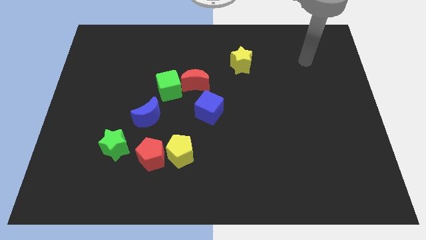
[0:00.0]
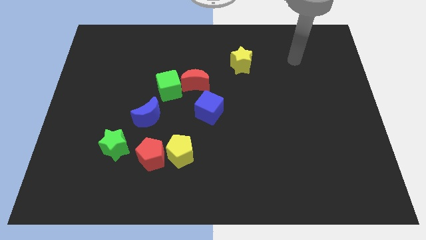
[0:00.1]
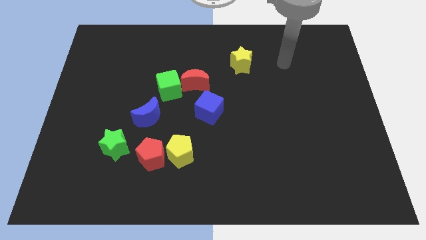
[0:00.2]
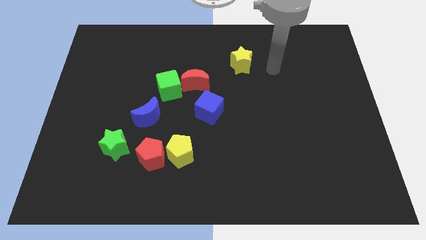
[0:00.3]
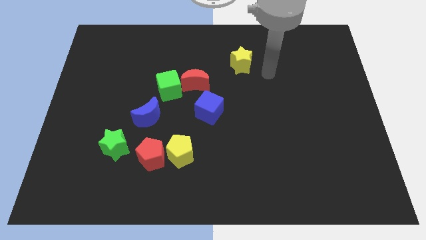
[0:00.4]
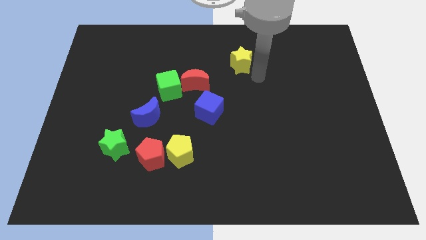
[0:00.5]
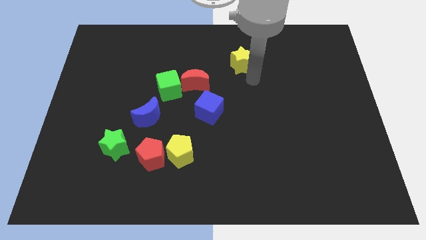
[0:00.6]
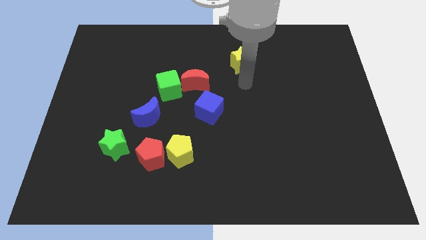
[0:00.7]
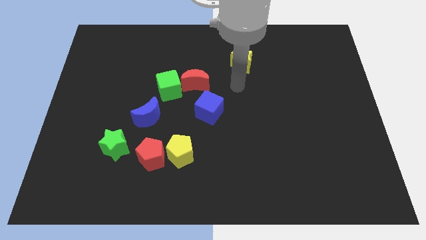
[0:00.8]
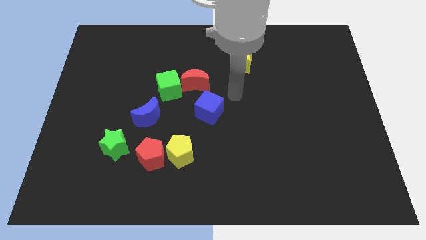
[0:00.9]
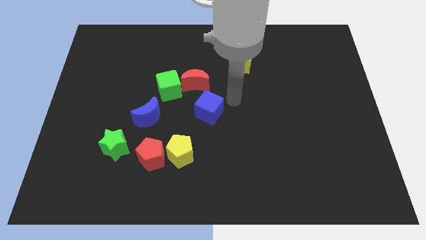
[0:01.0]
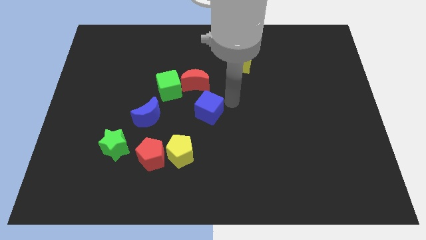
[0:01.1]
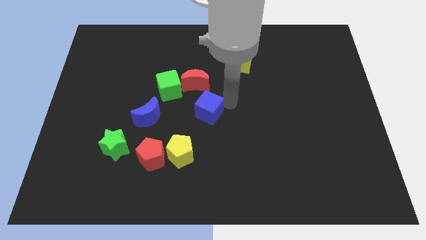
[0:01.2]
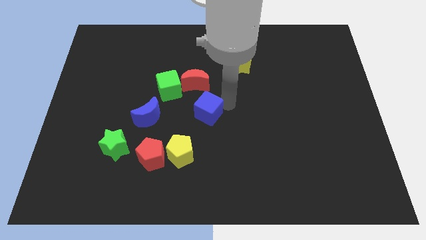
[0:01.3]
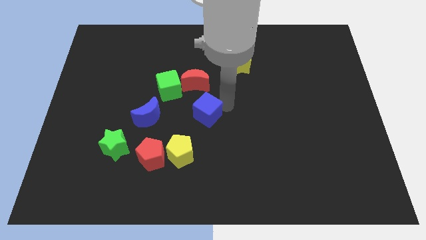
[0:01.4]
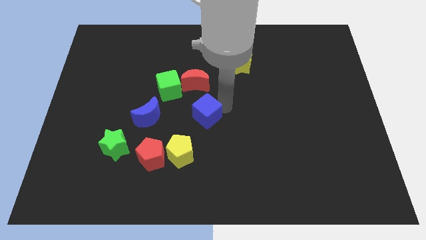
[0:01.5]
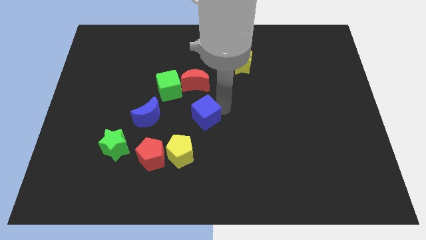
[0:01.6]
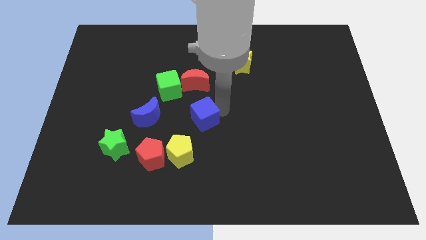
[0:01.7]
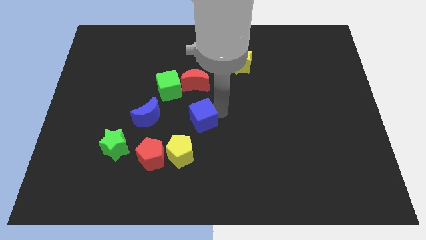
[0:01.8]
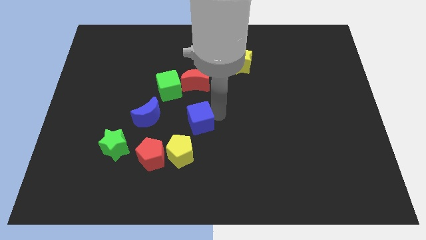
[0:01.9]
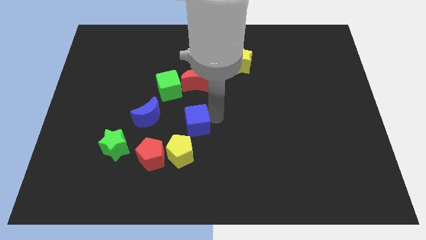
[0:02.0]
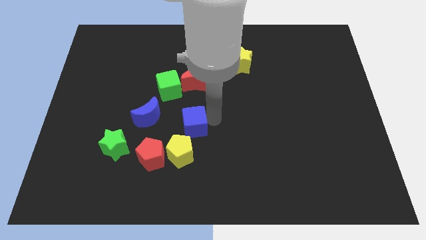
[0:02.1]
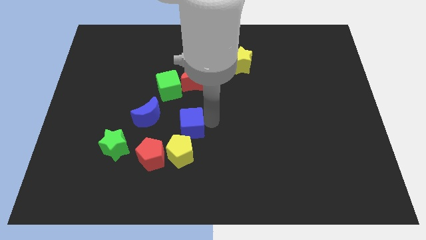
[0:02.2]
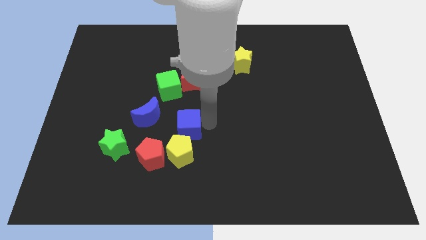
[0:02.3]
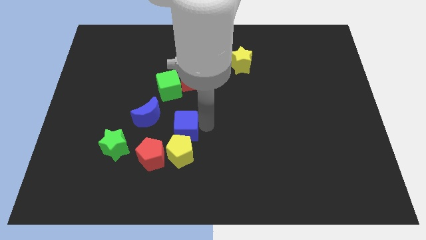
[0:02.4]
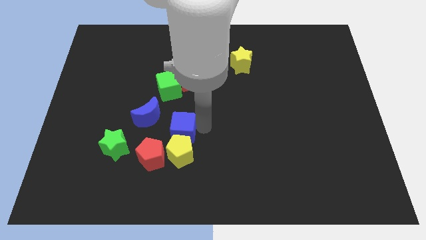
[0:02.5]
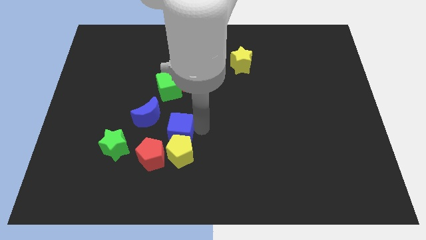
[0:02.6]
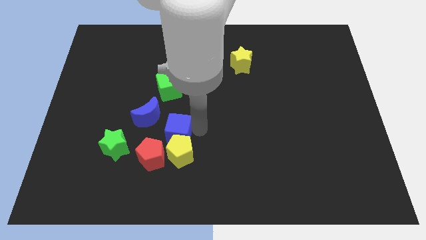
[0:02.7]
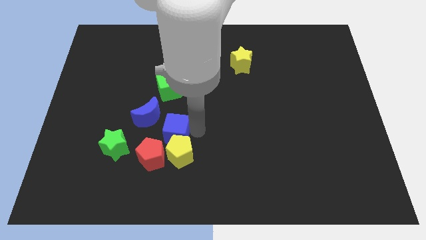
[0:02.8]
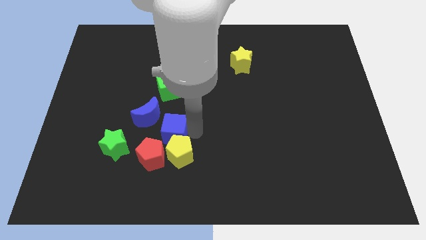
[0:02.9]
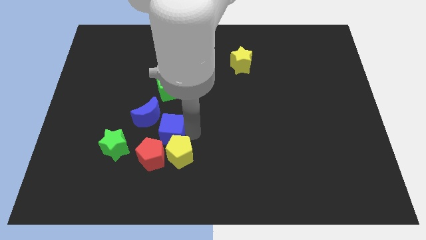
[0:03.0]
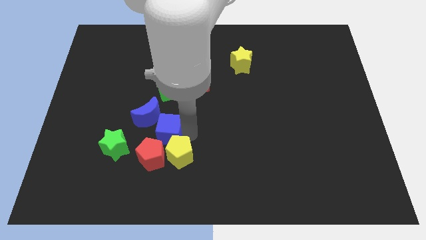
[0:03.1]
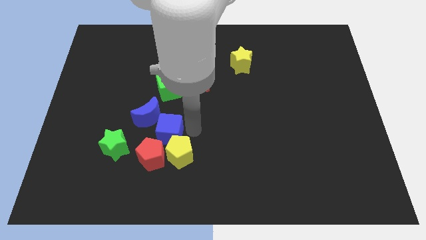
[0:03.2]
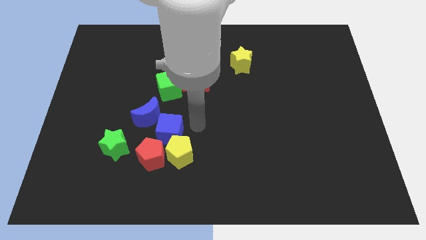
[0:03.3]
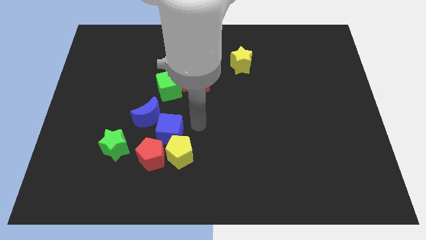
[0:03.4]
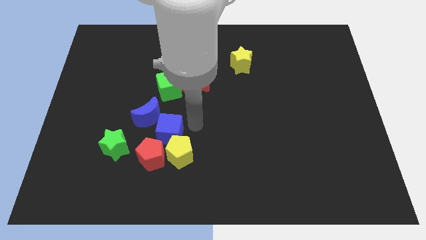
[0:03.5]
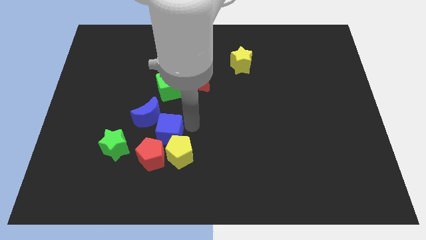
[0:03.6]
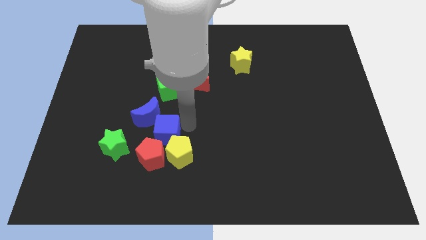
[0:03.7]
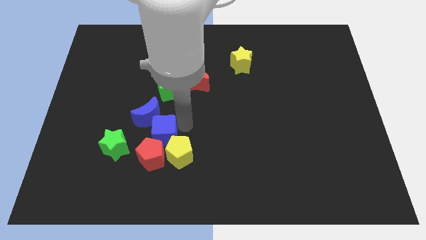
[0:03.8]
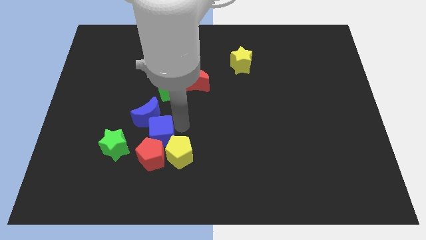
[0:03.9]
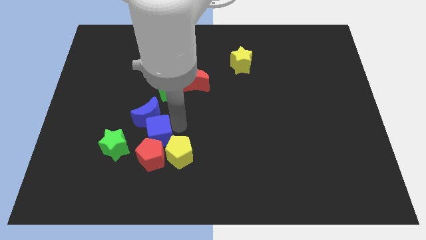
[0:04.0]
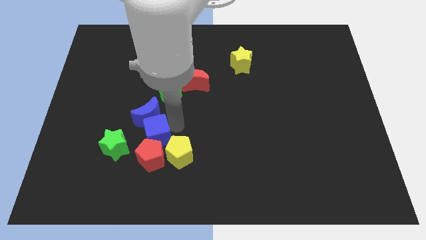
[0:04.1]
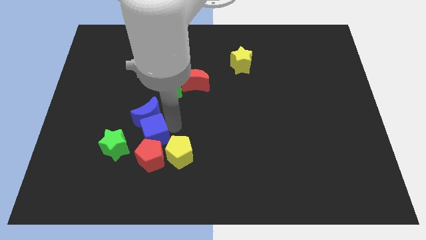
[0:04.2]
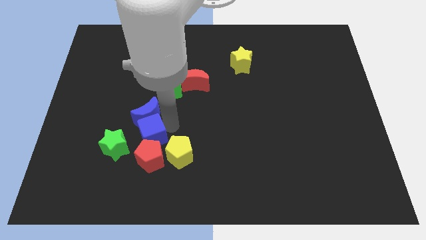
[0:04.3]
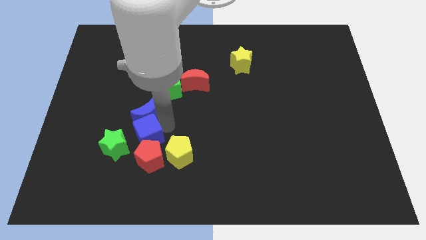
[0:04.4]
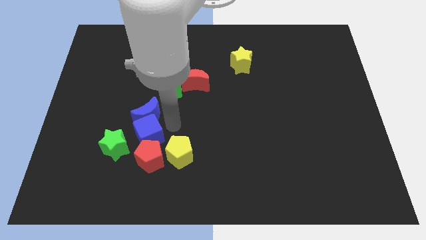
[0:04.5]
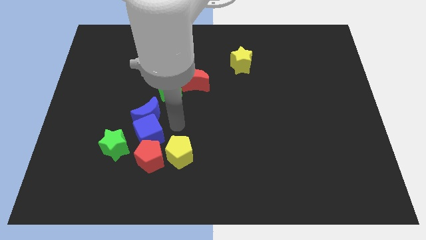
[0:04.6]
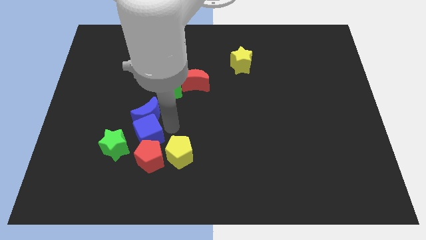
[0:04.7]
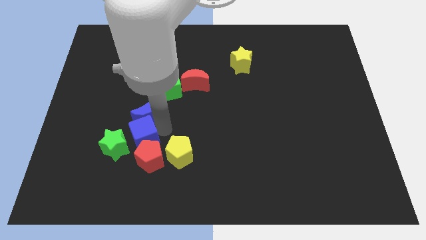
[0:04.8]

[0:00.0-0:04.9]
push the blue cube next to the green star

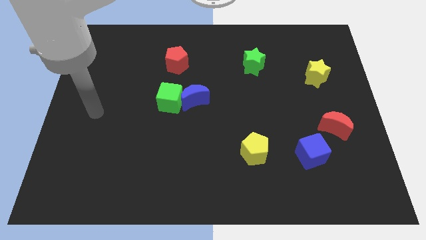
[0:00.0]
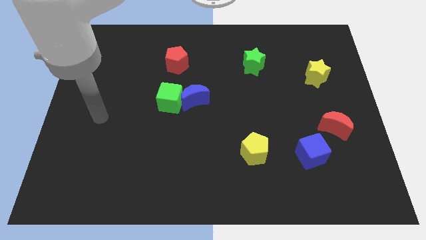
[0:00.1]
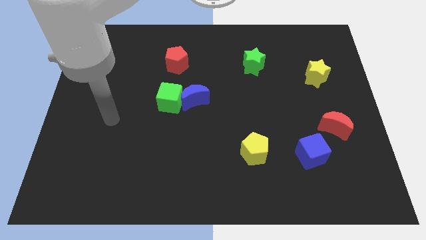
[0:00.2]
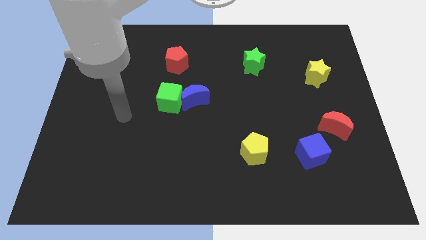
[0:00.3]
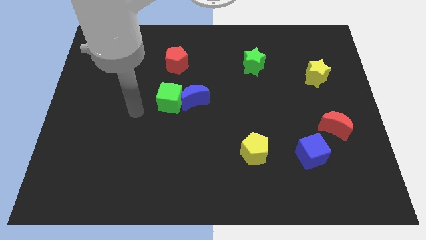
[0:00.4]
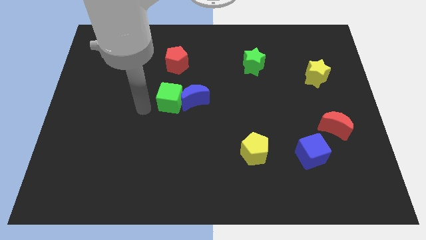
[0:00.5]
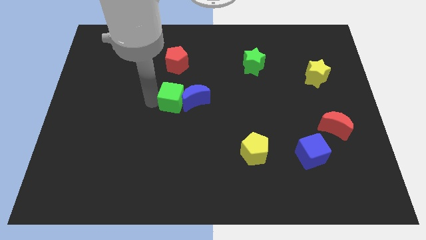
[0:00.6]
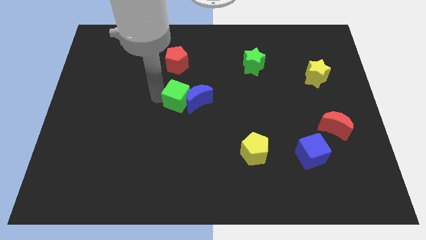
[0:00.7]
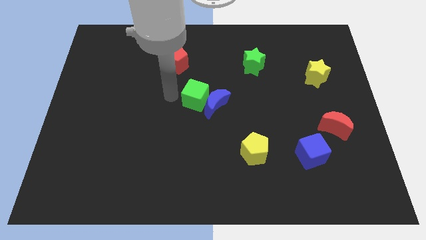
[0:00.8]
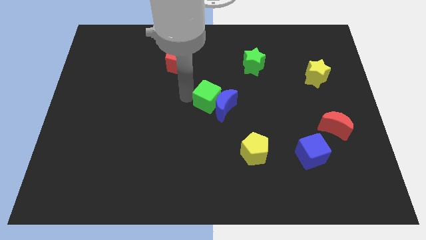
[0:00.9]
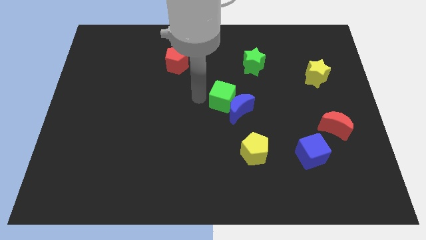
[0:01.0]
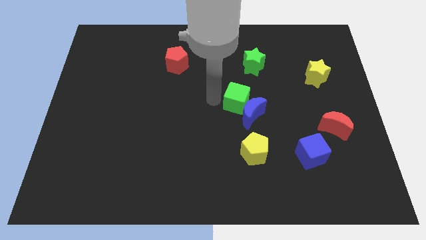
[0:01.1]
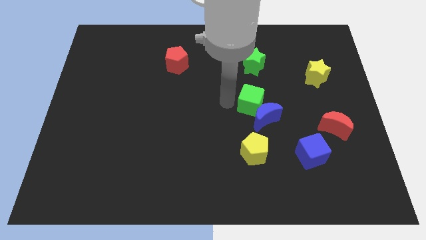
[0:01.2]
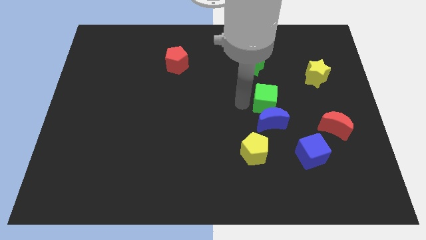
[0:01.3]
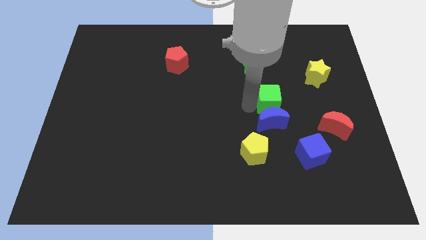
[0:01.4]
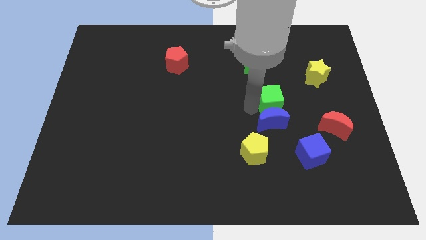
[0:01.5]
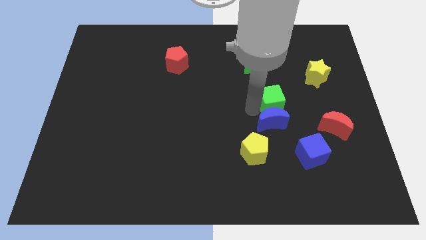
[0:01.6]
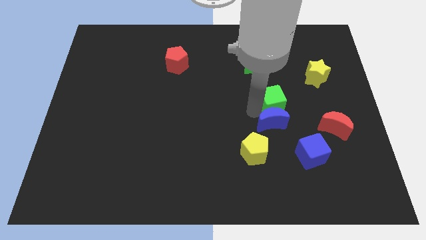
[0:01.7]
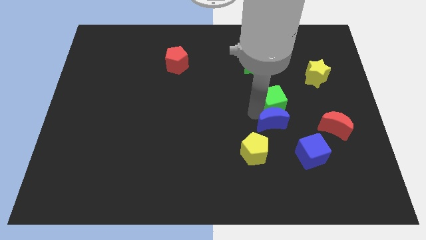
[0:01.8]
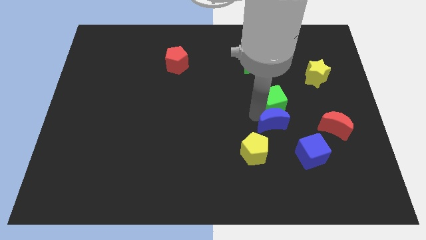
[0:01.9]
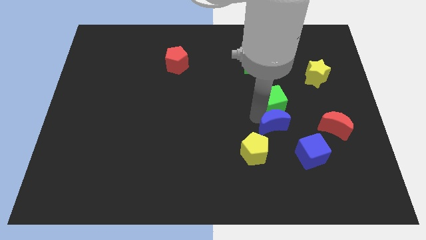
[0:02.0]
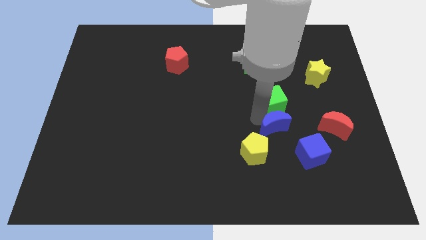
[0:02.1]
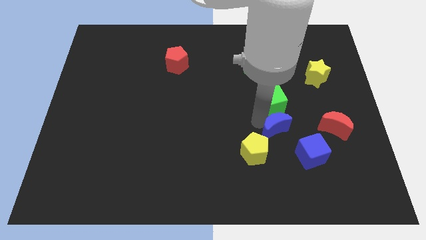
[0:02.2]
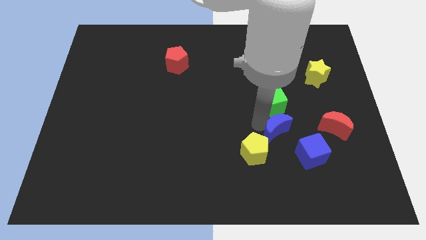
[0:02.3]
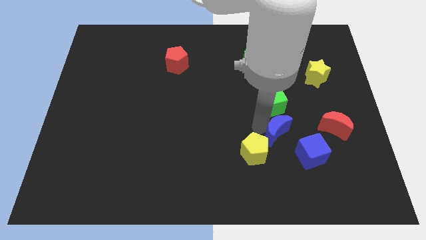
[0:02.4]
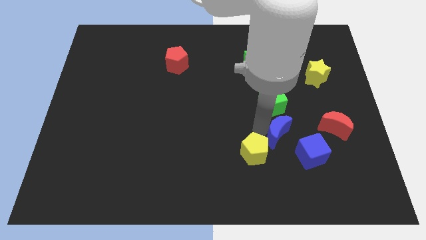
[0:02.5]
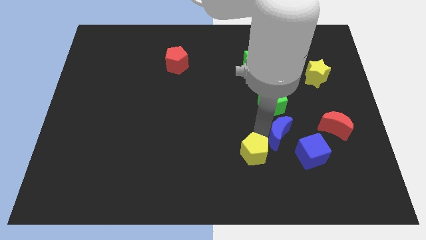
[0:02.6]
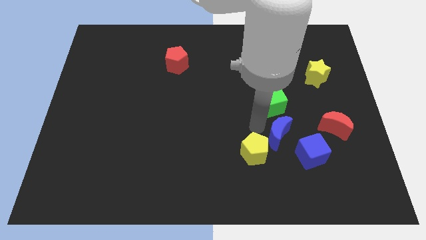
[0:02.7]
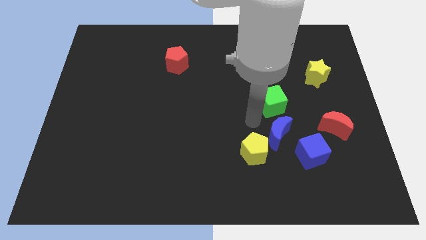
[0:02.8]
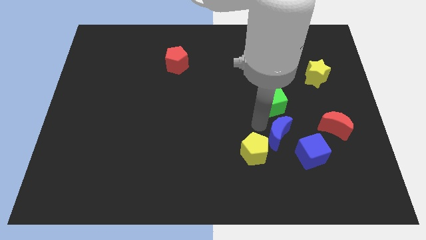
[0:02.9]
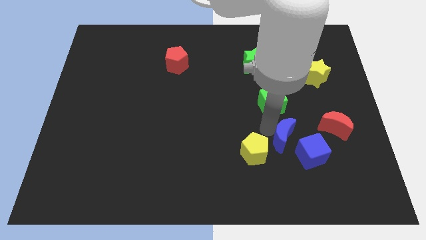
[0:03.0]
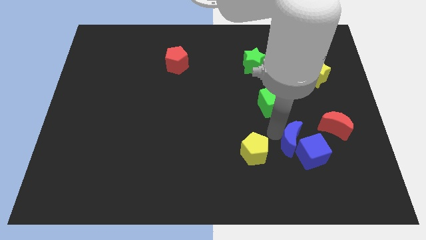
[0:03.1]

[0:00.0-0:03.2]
move the blue moon towards the blue cube
